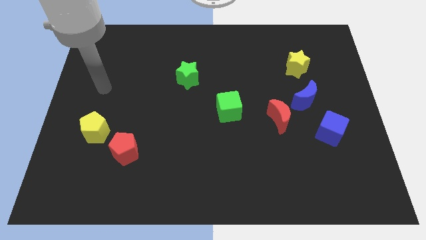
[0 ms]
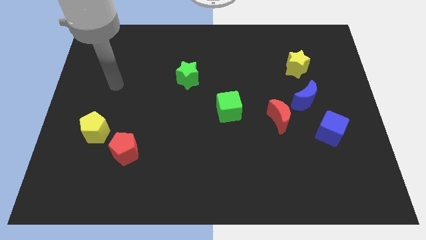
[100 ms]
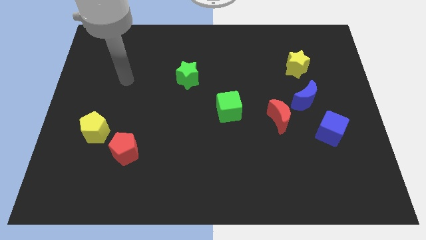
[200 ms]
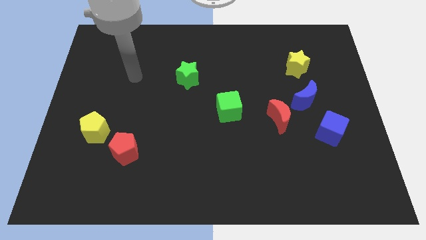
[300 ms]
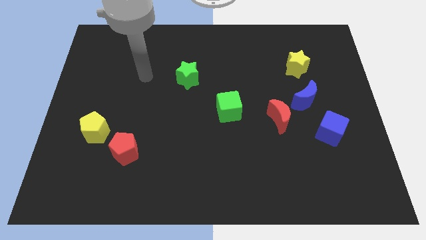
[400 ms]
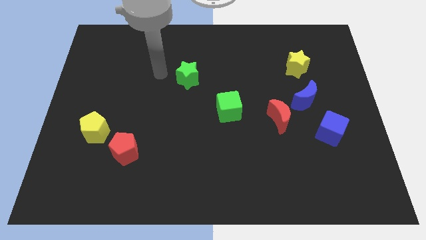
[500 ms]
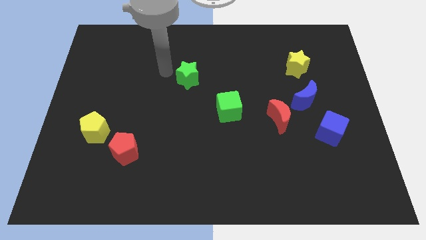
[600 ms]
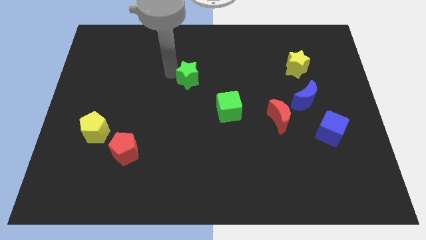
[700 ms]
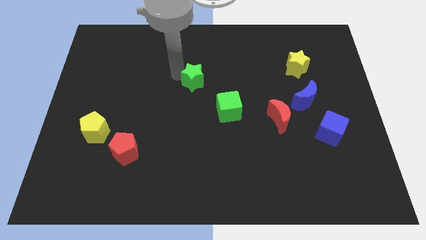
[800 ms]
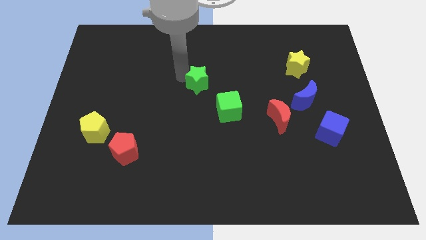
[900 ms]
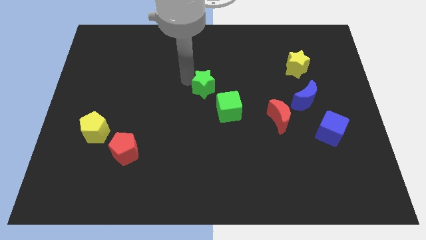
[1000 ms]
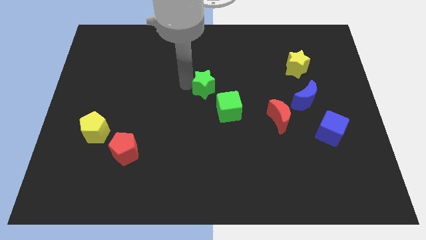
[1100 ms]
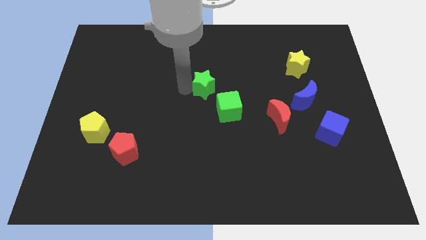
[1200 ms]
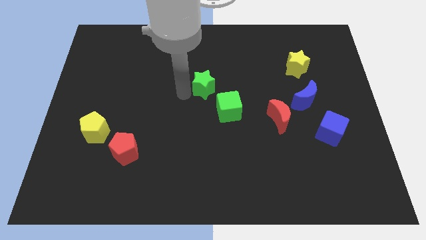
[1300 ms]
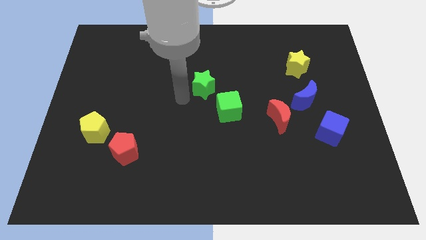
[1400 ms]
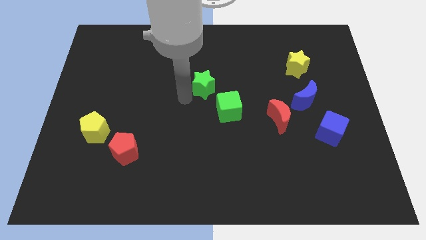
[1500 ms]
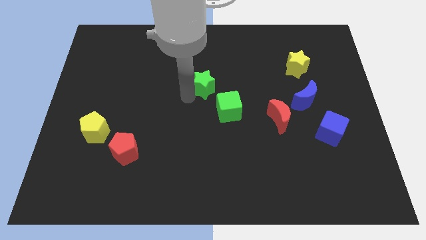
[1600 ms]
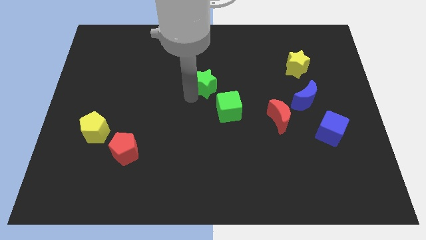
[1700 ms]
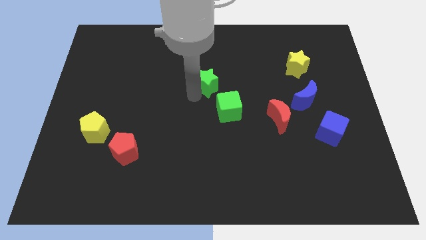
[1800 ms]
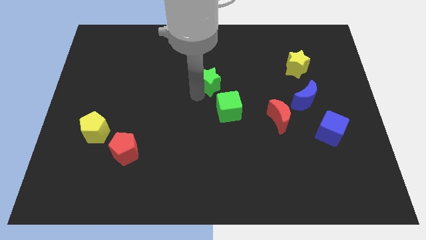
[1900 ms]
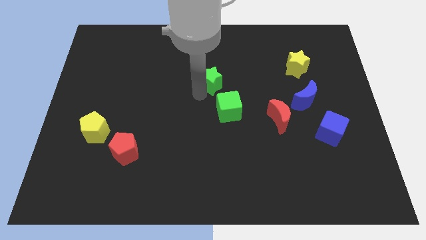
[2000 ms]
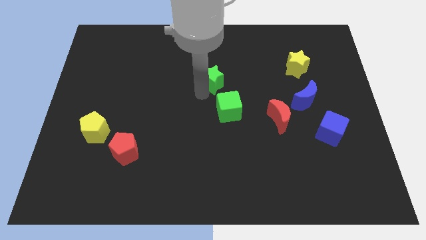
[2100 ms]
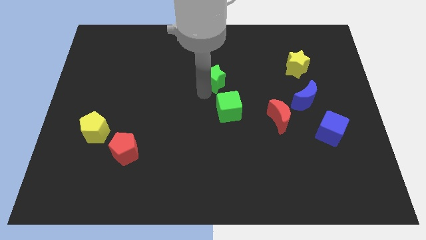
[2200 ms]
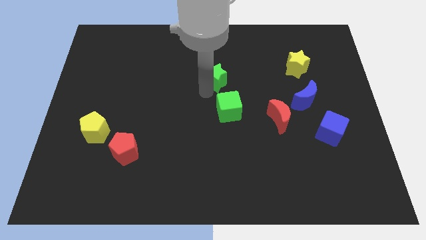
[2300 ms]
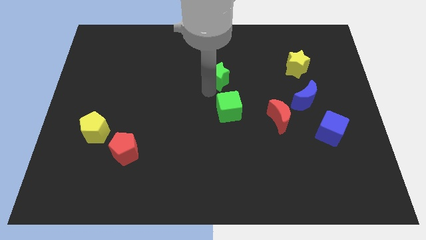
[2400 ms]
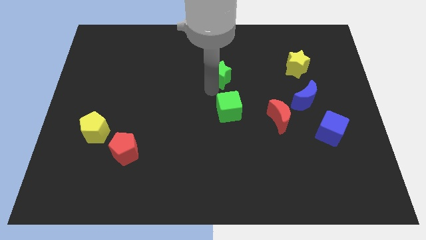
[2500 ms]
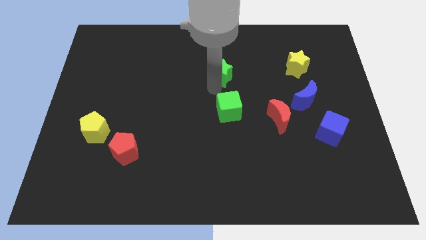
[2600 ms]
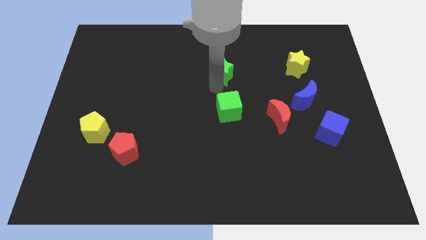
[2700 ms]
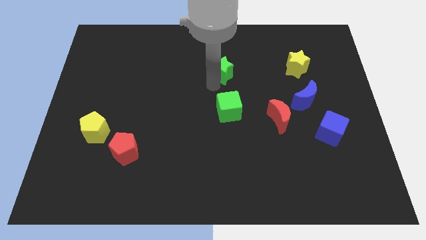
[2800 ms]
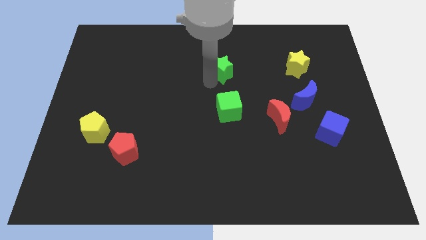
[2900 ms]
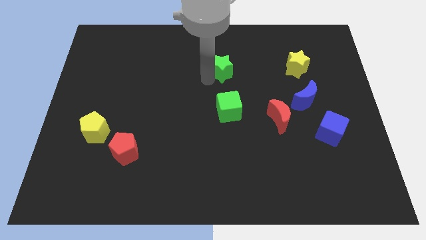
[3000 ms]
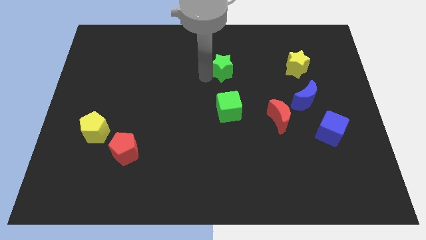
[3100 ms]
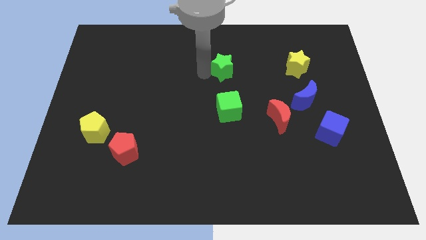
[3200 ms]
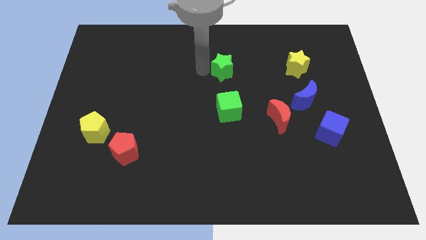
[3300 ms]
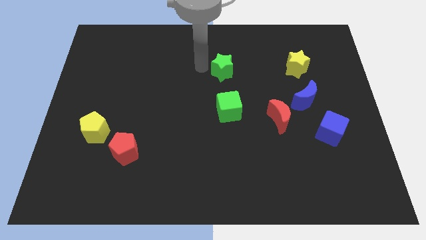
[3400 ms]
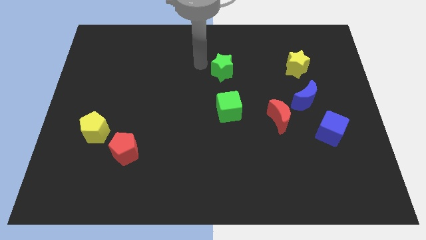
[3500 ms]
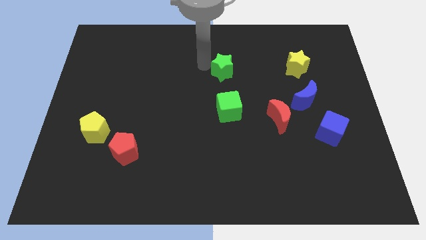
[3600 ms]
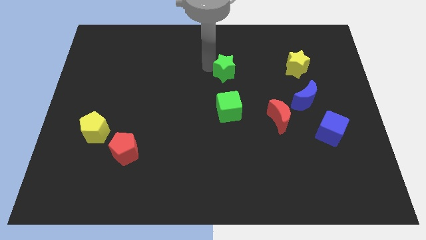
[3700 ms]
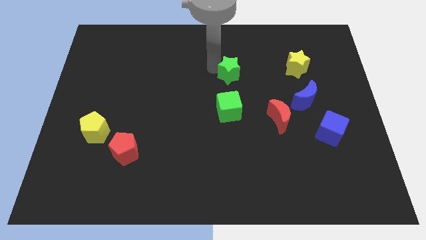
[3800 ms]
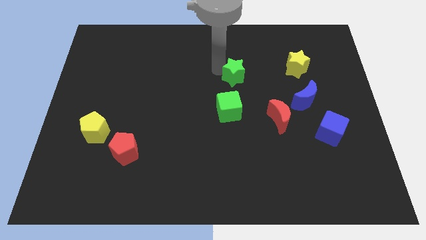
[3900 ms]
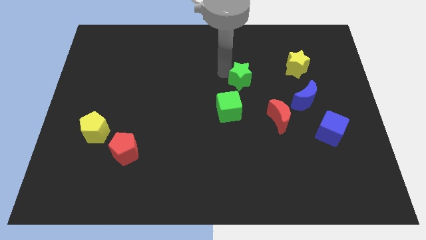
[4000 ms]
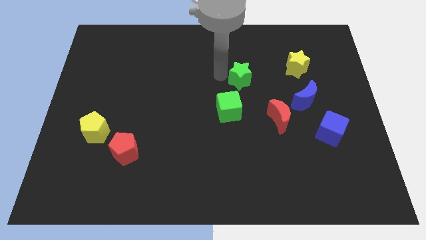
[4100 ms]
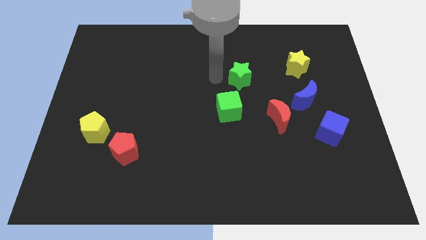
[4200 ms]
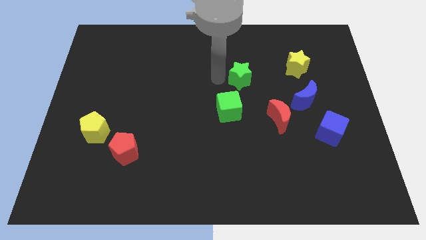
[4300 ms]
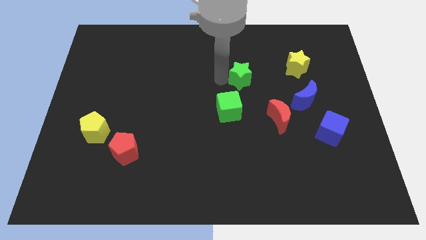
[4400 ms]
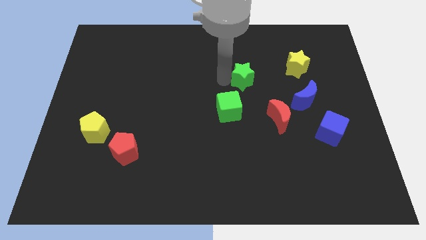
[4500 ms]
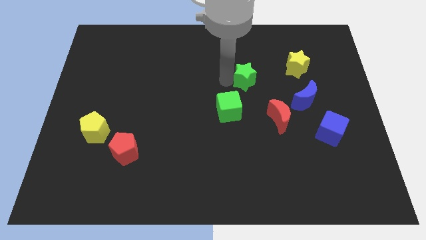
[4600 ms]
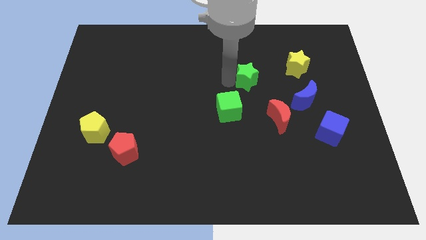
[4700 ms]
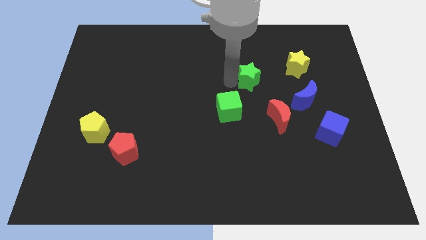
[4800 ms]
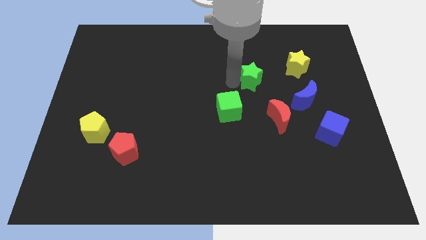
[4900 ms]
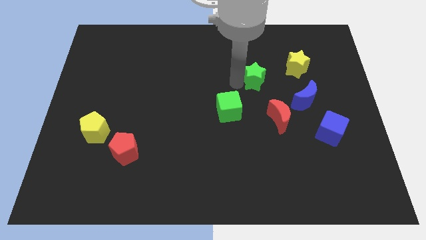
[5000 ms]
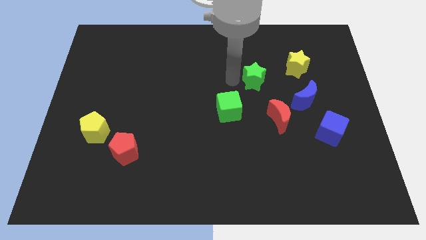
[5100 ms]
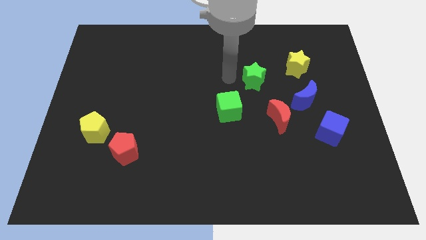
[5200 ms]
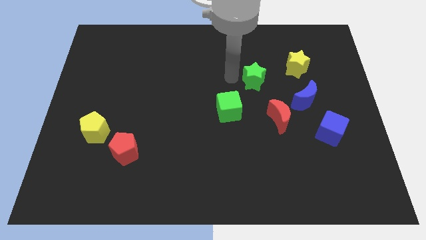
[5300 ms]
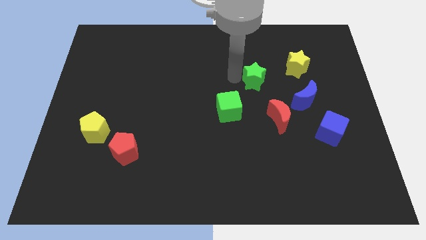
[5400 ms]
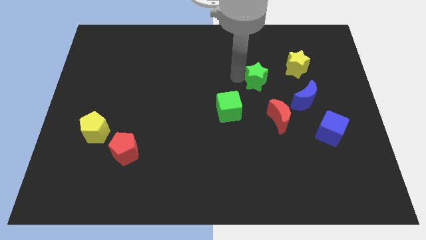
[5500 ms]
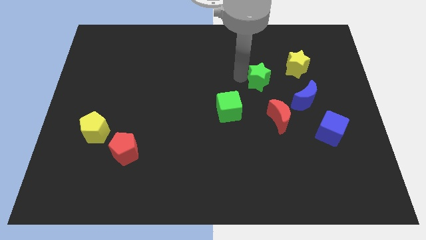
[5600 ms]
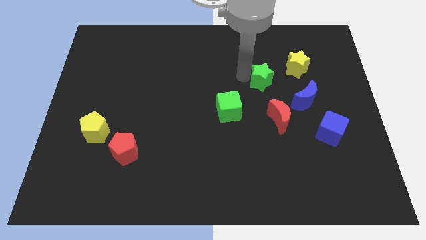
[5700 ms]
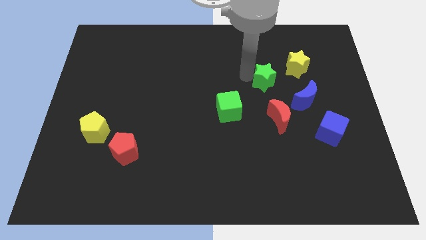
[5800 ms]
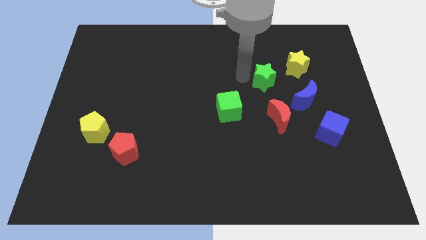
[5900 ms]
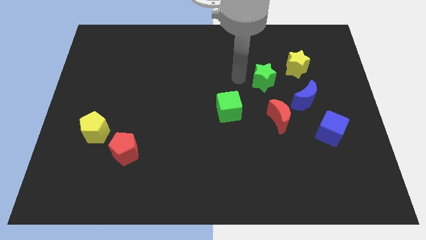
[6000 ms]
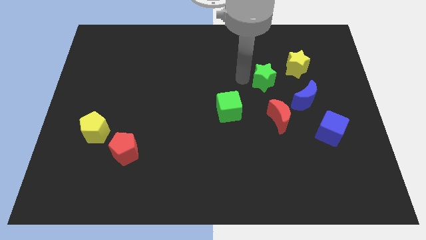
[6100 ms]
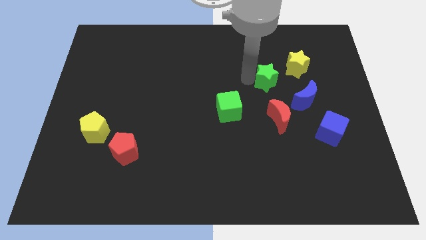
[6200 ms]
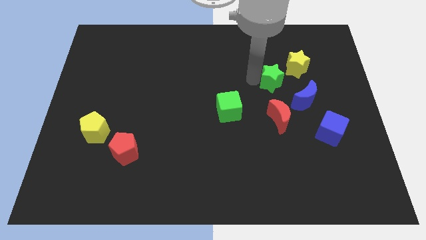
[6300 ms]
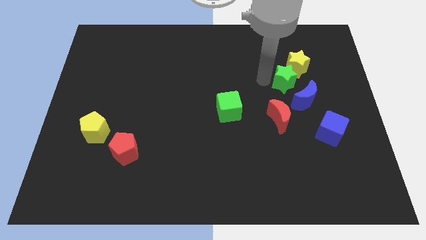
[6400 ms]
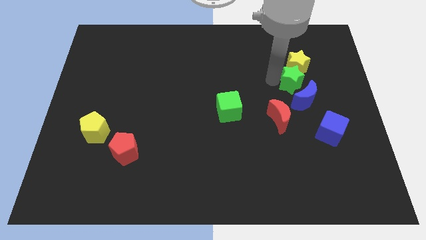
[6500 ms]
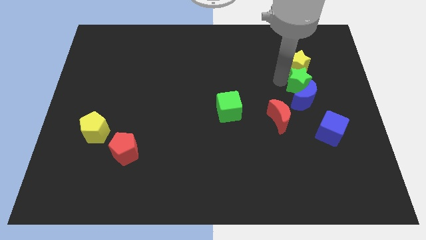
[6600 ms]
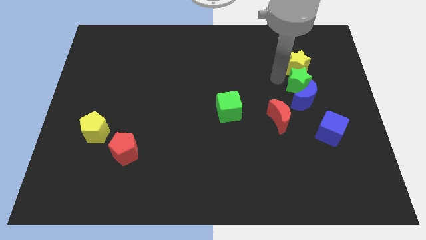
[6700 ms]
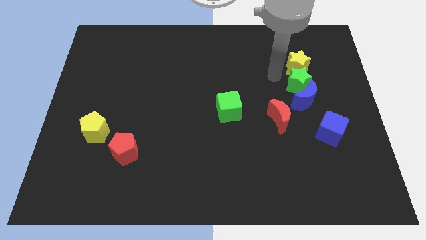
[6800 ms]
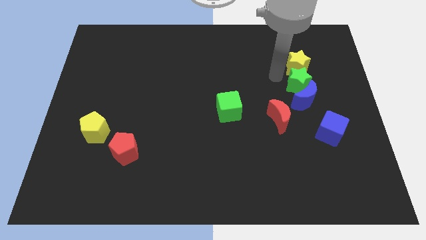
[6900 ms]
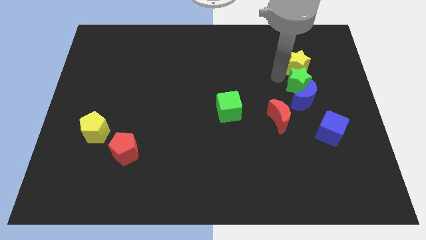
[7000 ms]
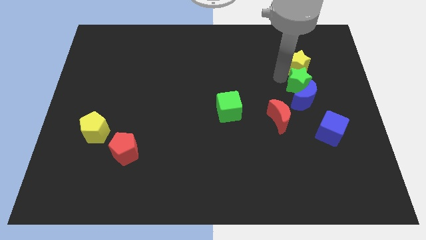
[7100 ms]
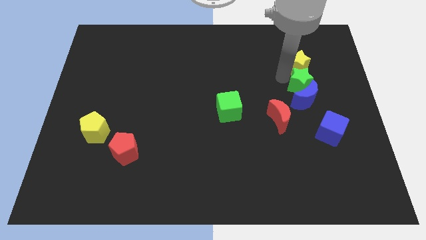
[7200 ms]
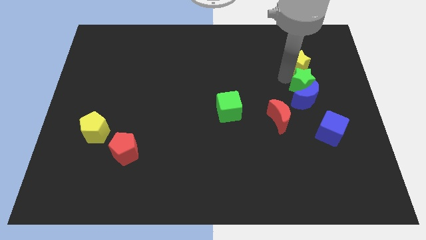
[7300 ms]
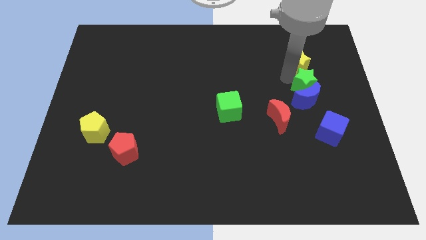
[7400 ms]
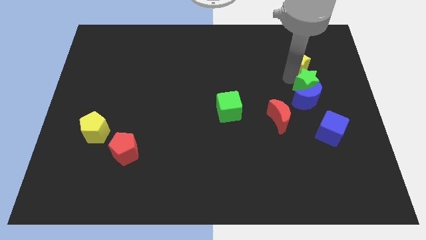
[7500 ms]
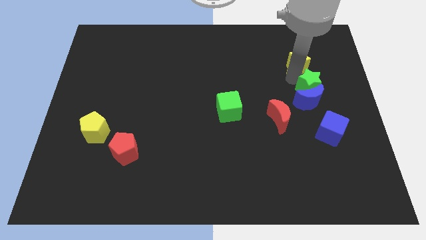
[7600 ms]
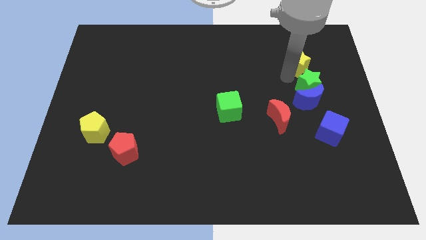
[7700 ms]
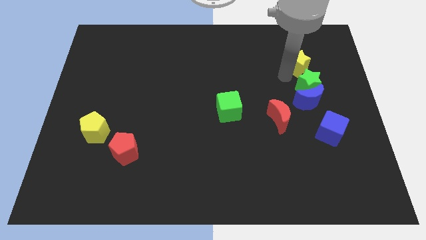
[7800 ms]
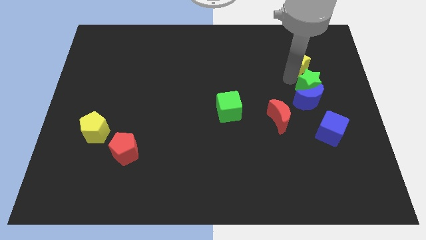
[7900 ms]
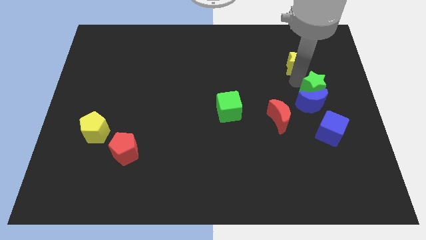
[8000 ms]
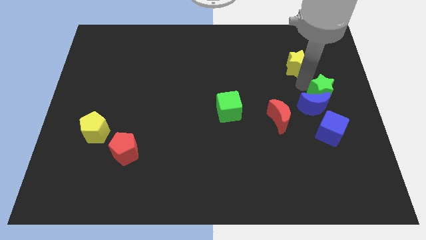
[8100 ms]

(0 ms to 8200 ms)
push the green star to the center right
